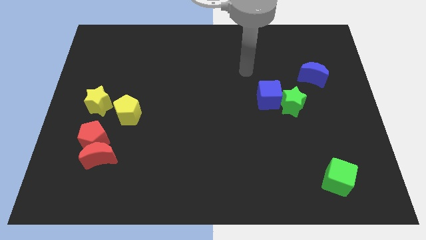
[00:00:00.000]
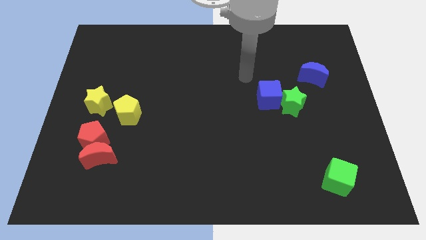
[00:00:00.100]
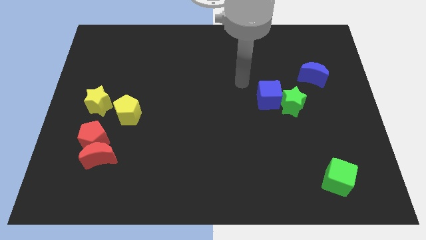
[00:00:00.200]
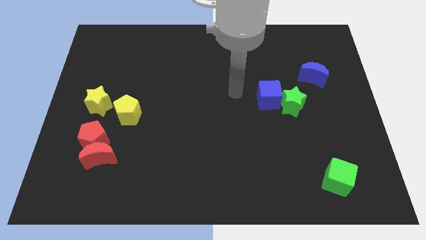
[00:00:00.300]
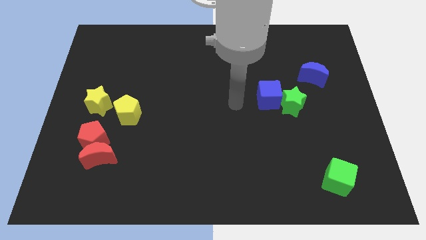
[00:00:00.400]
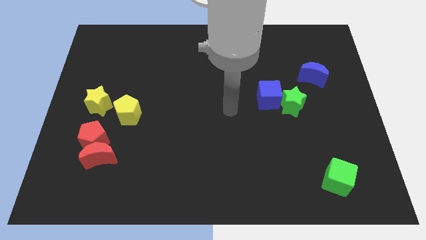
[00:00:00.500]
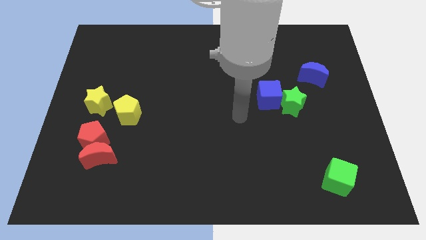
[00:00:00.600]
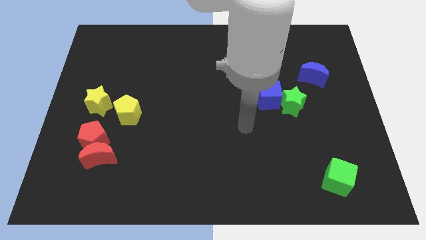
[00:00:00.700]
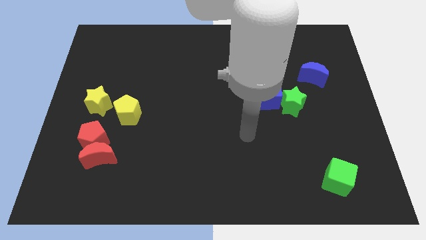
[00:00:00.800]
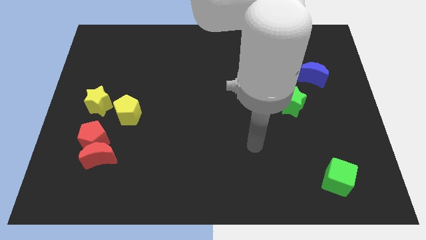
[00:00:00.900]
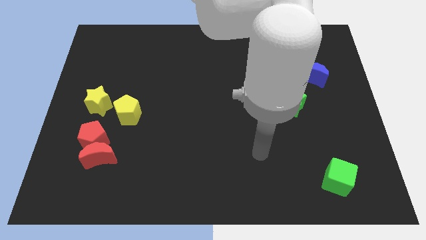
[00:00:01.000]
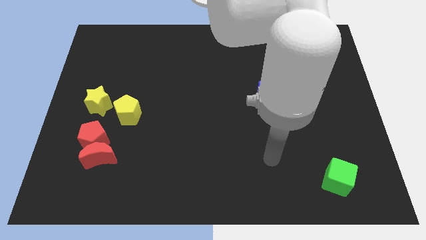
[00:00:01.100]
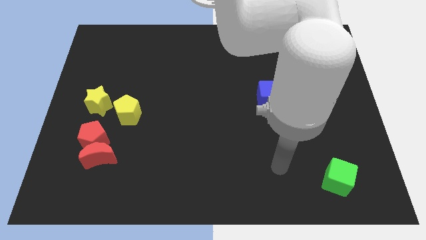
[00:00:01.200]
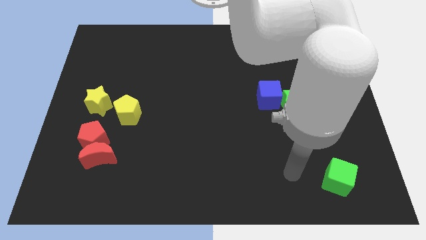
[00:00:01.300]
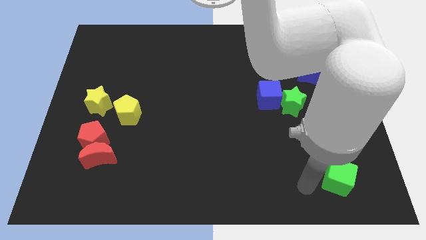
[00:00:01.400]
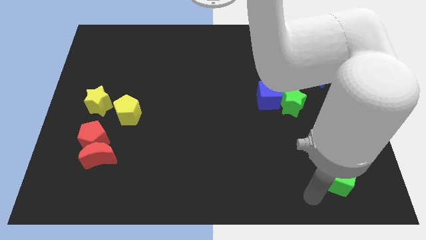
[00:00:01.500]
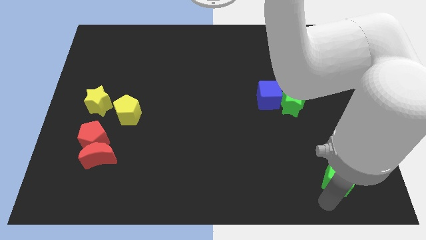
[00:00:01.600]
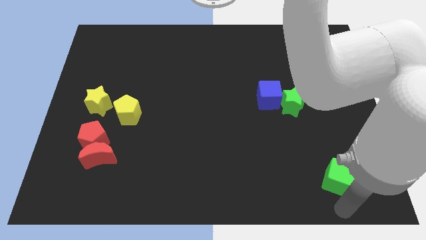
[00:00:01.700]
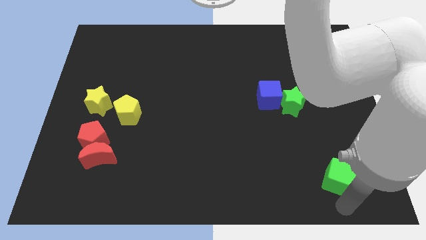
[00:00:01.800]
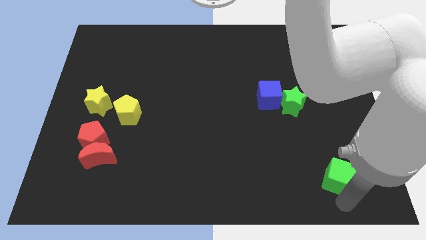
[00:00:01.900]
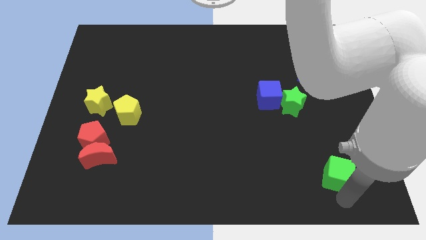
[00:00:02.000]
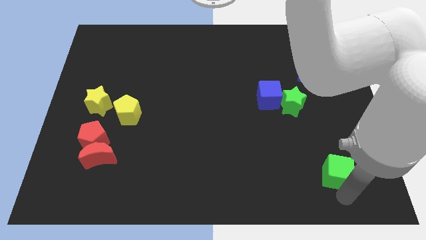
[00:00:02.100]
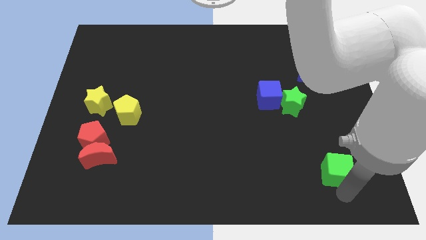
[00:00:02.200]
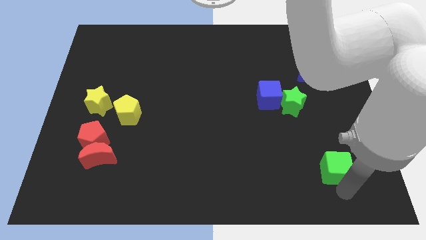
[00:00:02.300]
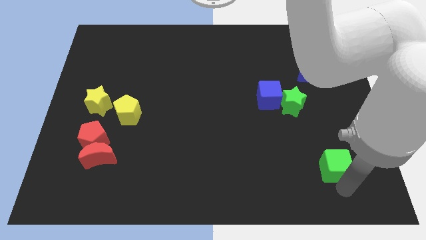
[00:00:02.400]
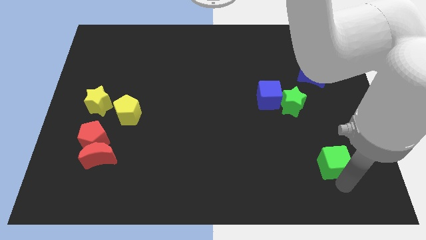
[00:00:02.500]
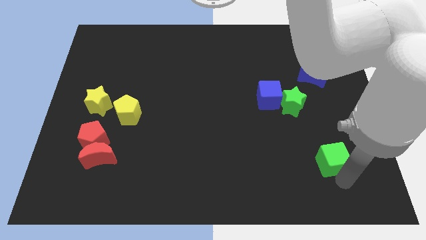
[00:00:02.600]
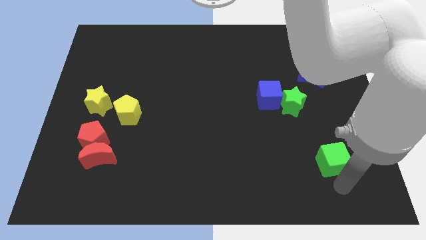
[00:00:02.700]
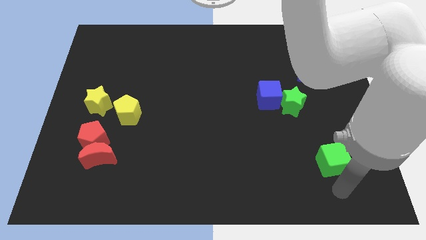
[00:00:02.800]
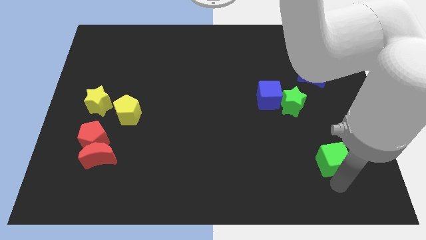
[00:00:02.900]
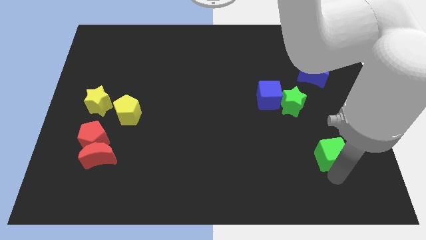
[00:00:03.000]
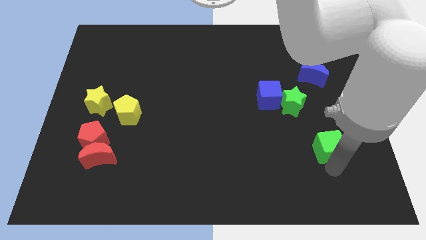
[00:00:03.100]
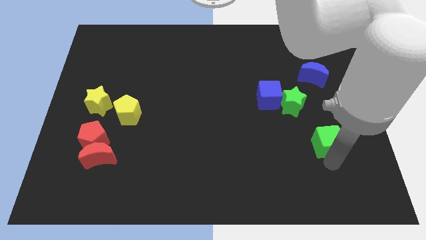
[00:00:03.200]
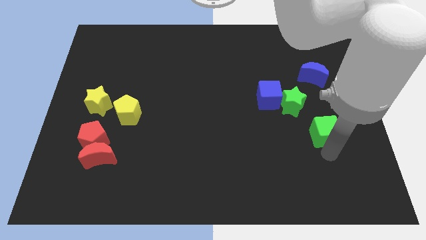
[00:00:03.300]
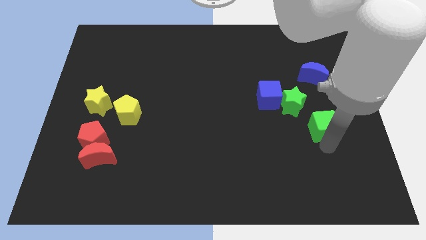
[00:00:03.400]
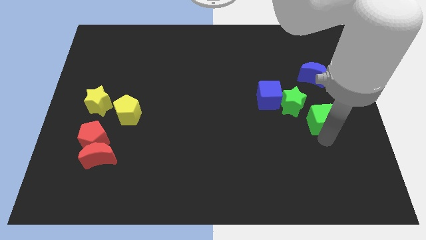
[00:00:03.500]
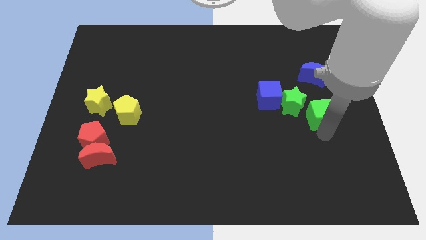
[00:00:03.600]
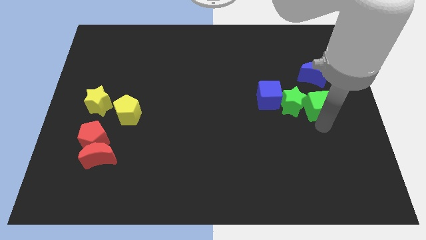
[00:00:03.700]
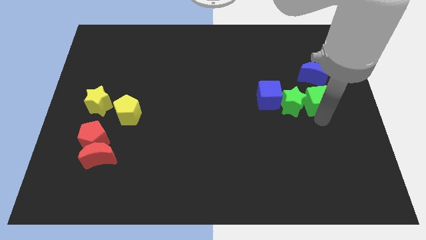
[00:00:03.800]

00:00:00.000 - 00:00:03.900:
slide the green cube upwards

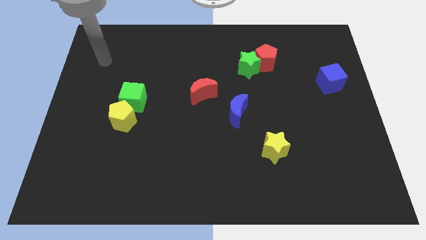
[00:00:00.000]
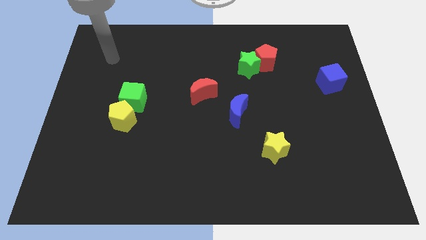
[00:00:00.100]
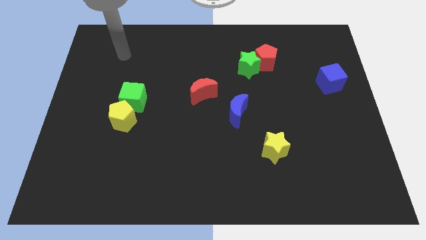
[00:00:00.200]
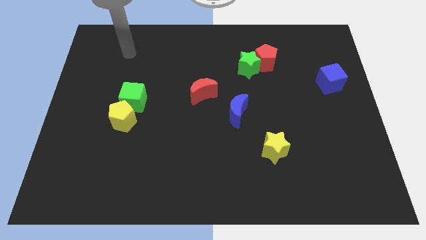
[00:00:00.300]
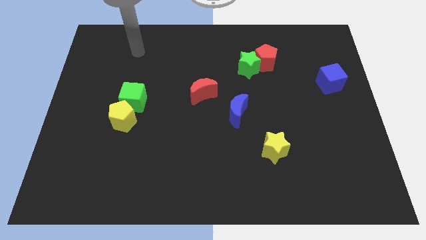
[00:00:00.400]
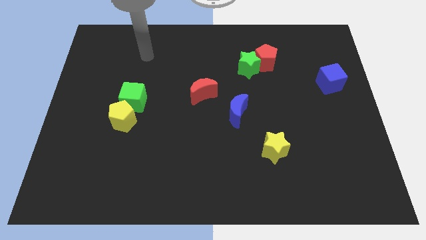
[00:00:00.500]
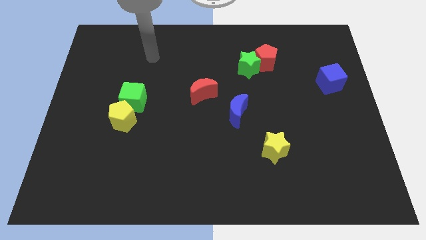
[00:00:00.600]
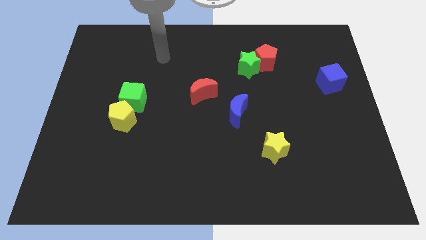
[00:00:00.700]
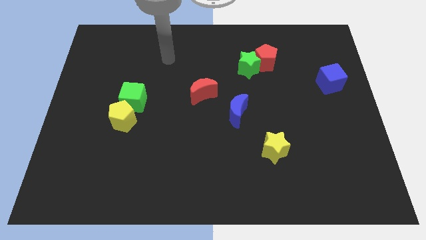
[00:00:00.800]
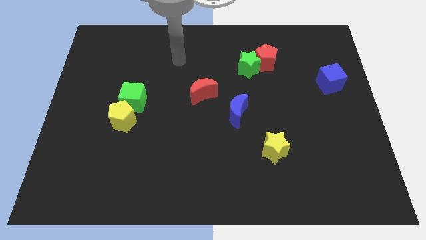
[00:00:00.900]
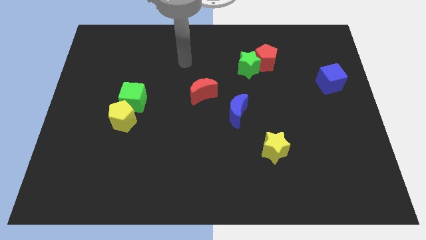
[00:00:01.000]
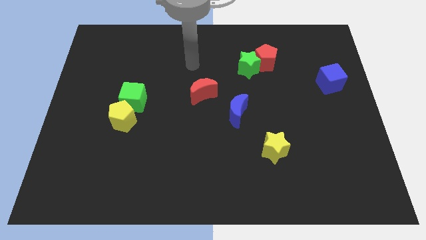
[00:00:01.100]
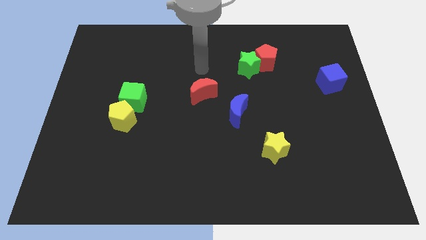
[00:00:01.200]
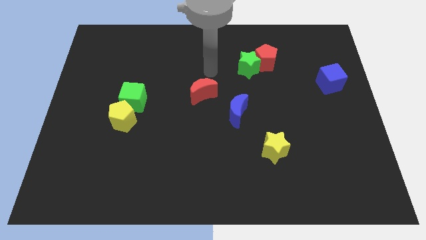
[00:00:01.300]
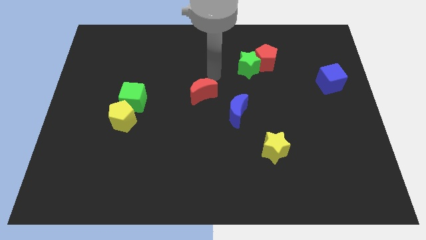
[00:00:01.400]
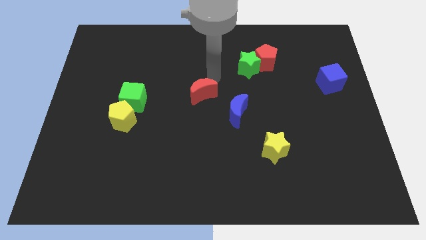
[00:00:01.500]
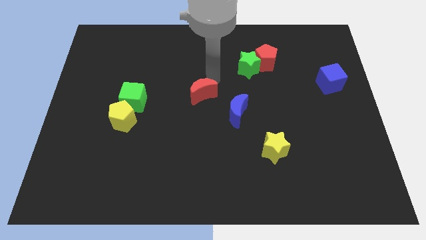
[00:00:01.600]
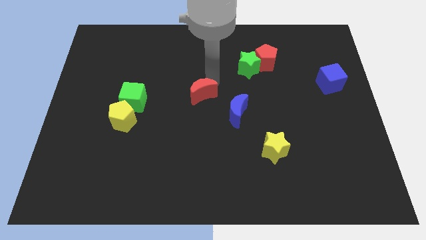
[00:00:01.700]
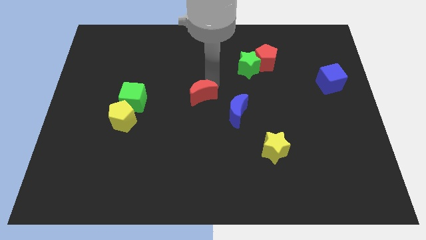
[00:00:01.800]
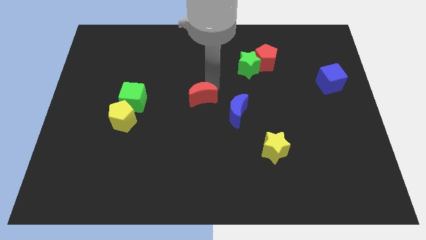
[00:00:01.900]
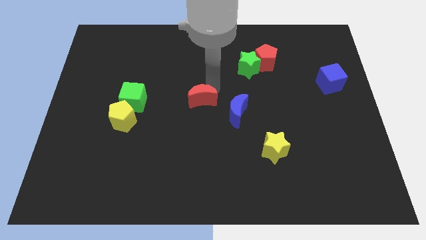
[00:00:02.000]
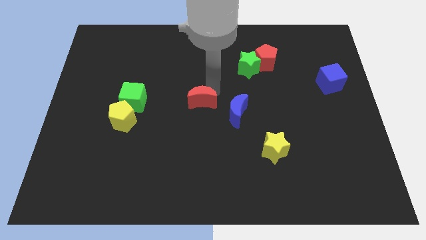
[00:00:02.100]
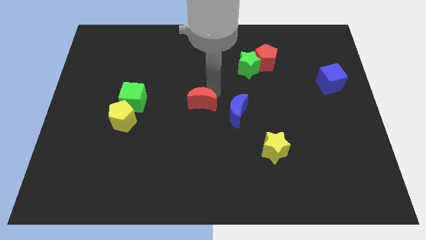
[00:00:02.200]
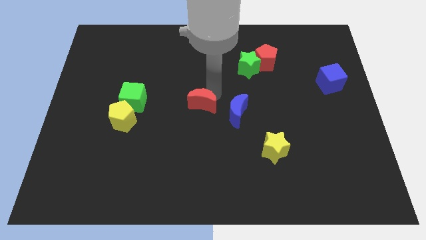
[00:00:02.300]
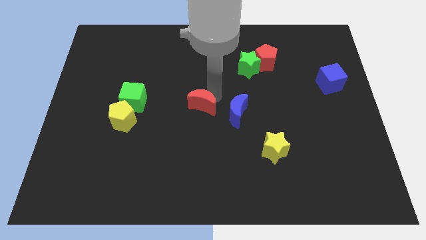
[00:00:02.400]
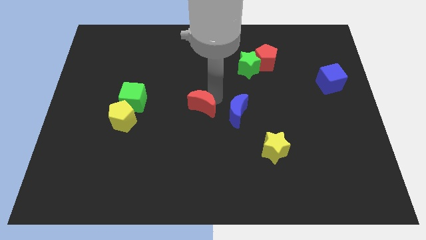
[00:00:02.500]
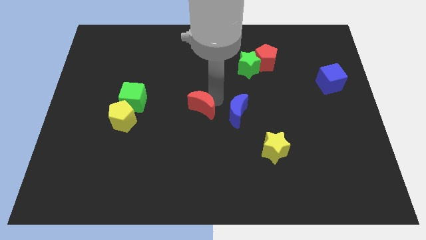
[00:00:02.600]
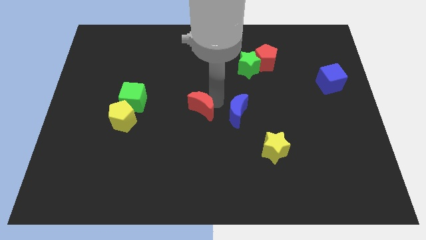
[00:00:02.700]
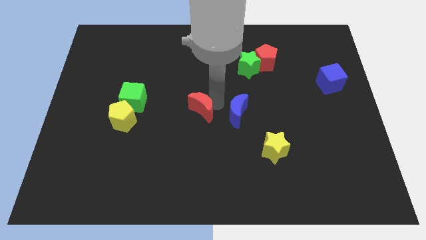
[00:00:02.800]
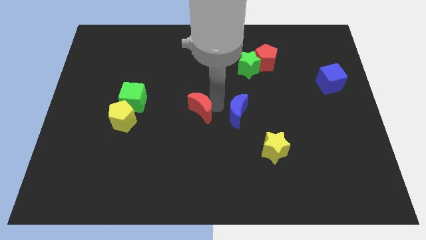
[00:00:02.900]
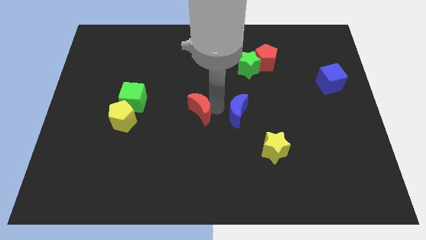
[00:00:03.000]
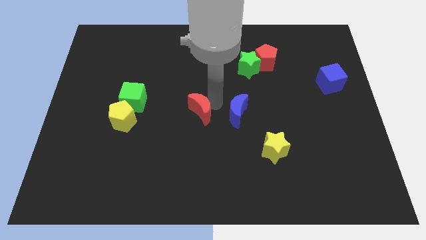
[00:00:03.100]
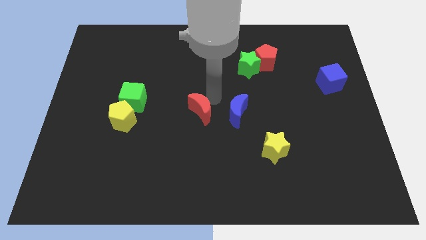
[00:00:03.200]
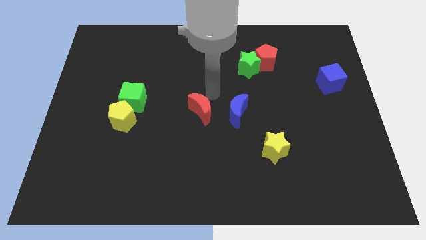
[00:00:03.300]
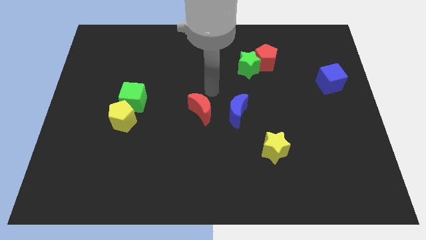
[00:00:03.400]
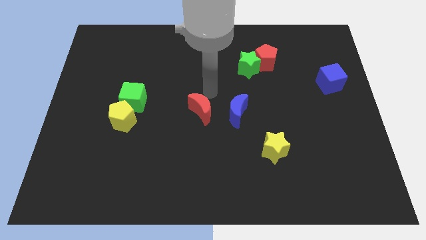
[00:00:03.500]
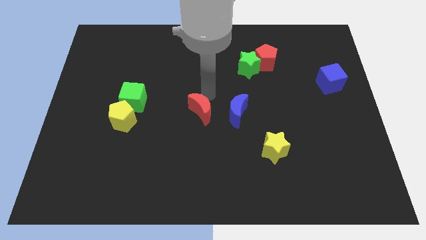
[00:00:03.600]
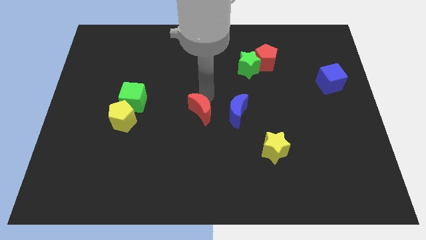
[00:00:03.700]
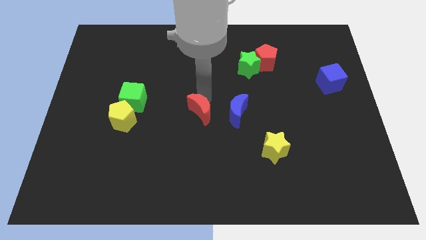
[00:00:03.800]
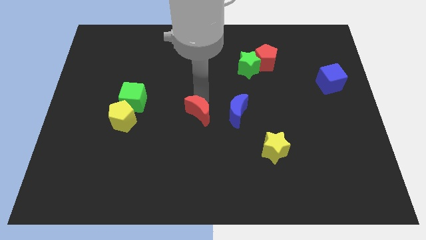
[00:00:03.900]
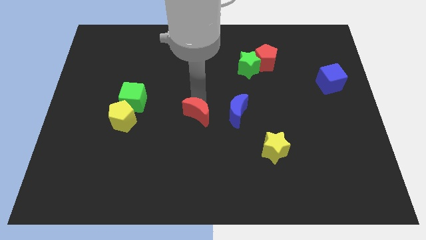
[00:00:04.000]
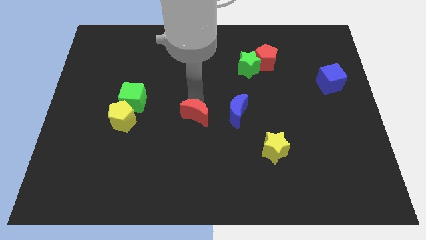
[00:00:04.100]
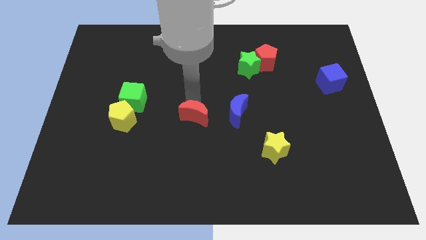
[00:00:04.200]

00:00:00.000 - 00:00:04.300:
slightly move the red moon down
